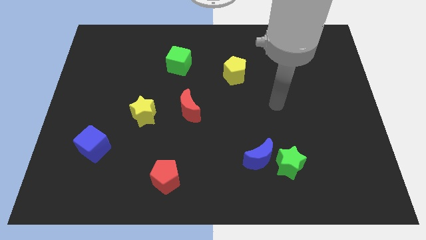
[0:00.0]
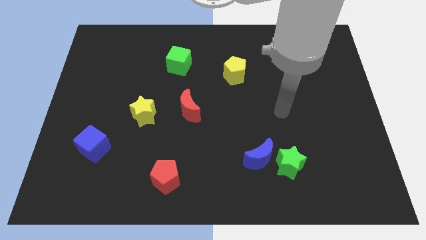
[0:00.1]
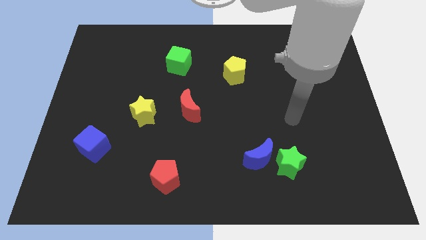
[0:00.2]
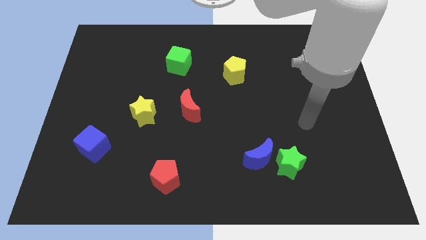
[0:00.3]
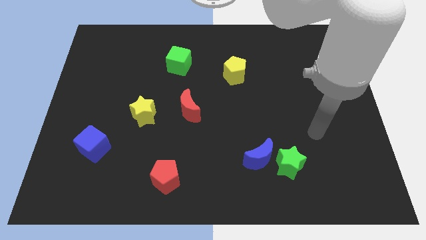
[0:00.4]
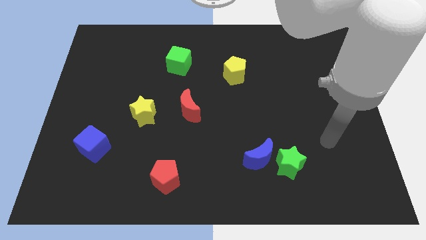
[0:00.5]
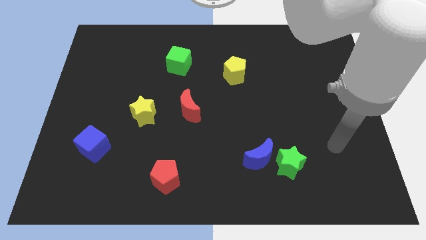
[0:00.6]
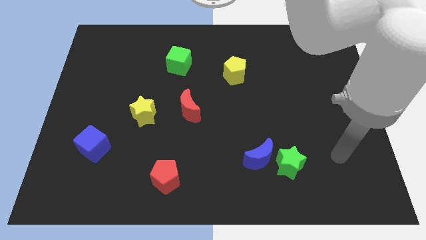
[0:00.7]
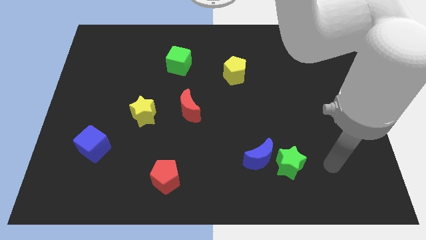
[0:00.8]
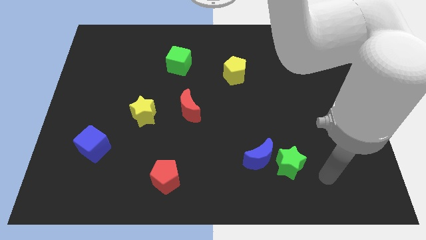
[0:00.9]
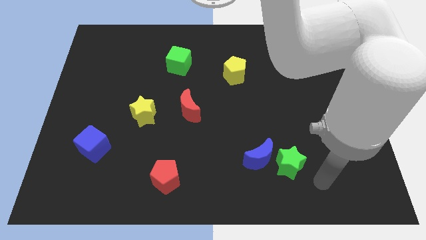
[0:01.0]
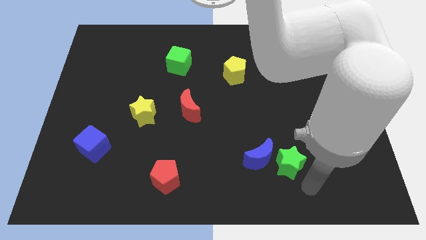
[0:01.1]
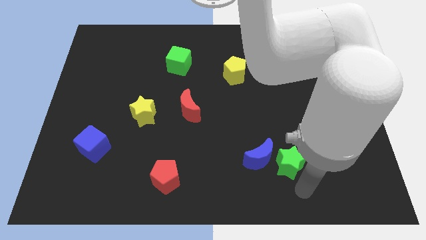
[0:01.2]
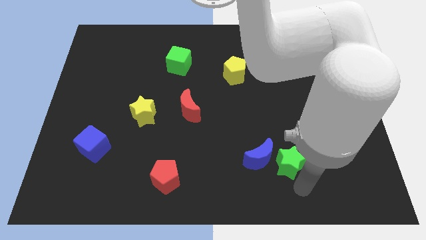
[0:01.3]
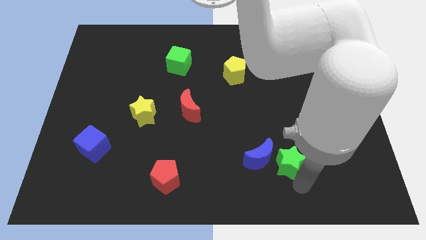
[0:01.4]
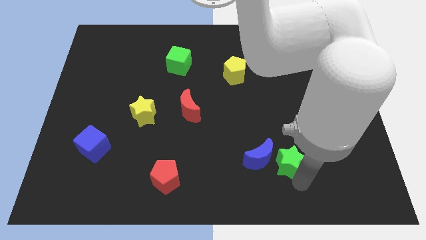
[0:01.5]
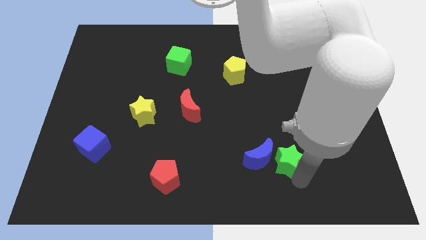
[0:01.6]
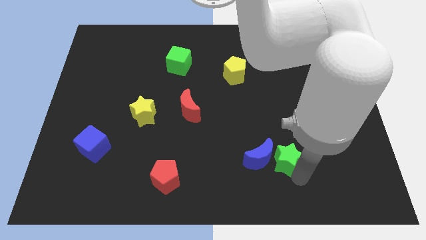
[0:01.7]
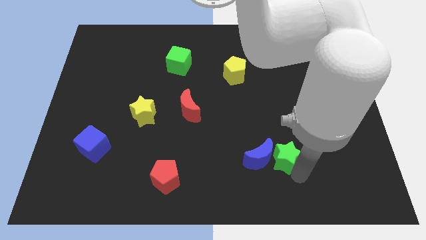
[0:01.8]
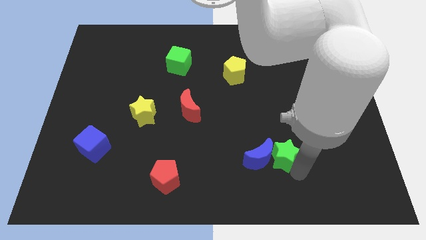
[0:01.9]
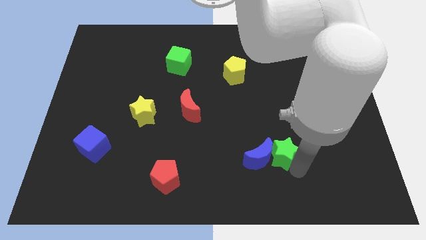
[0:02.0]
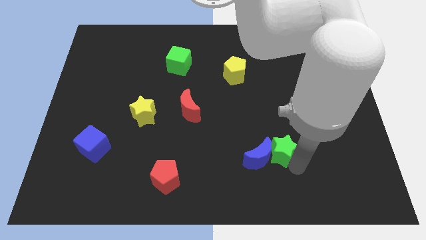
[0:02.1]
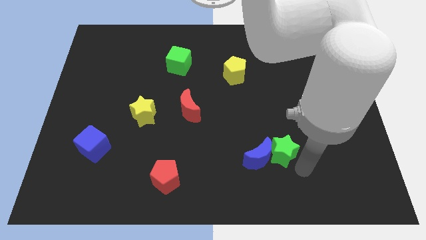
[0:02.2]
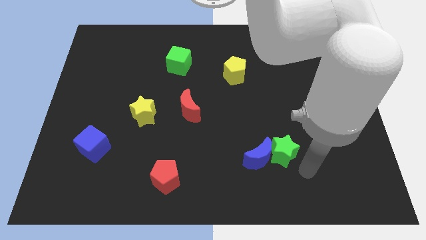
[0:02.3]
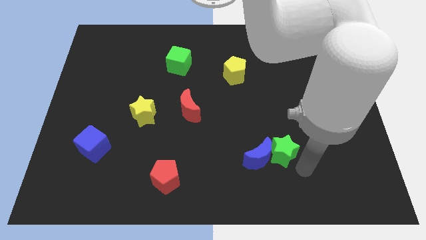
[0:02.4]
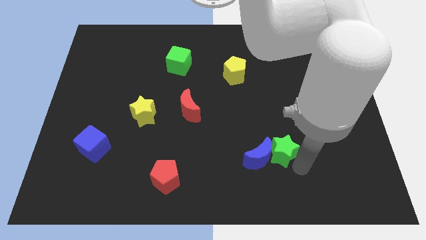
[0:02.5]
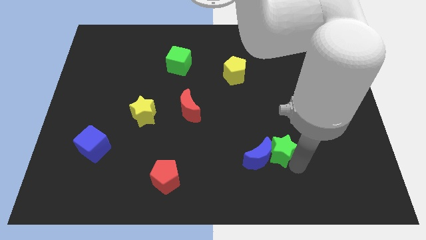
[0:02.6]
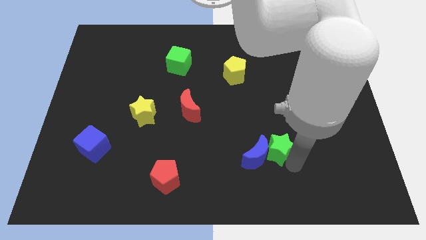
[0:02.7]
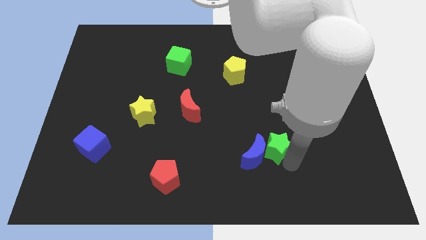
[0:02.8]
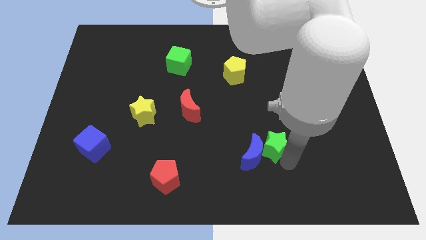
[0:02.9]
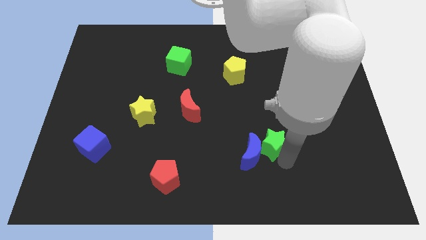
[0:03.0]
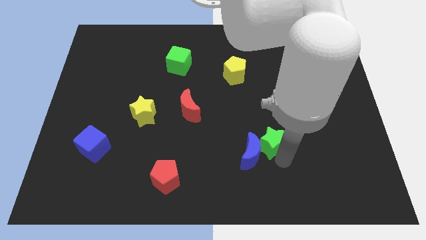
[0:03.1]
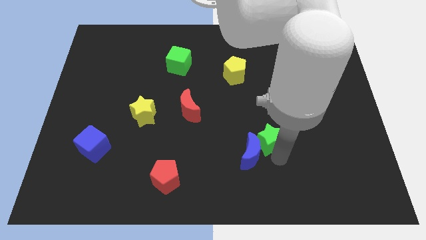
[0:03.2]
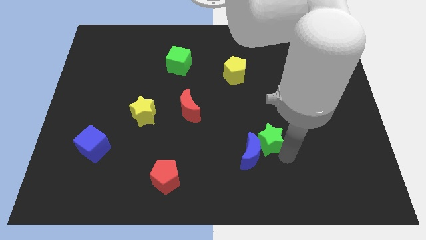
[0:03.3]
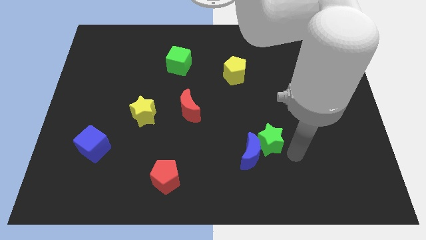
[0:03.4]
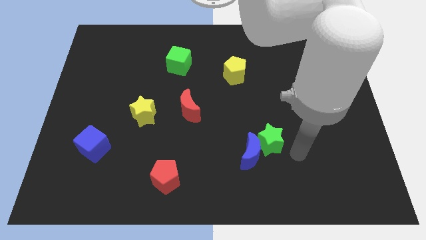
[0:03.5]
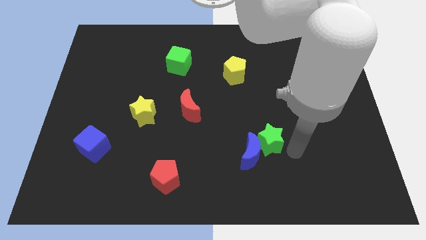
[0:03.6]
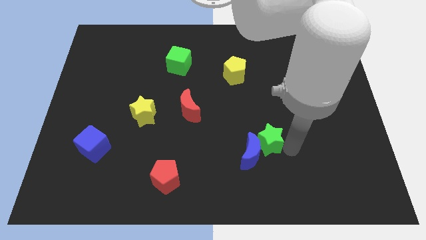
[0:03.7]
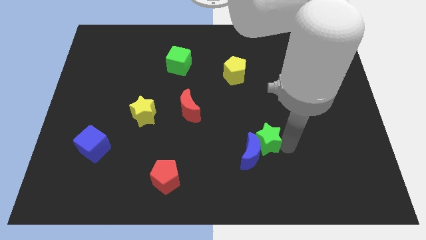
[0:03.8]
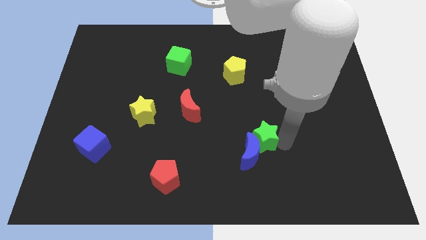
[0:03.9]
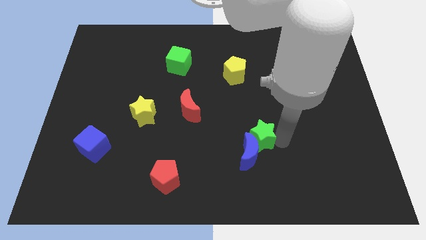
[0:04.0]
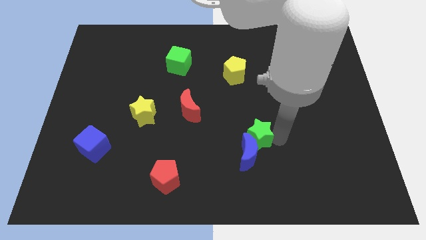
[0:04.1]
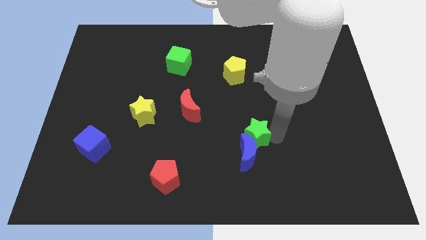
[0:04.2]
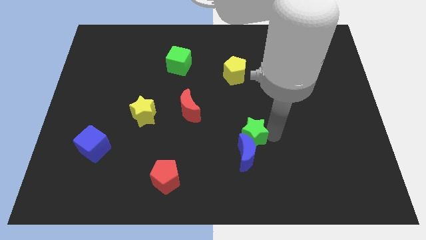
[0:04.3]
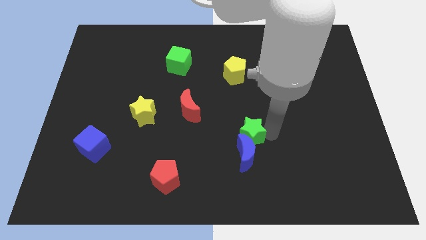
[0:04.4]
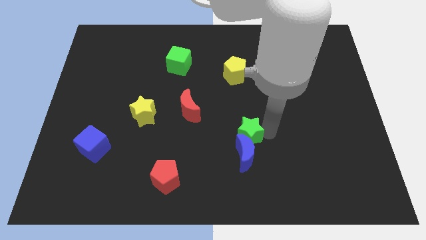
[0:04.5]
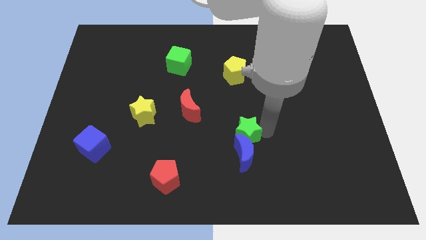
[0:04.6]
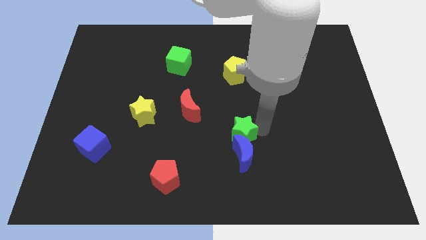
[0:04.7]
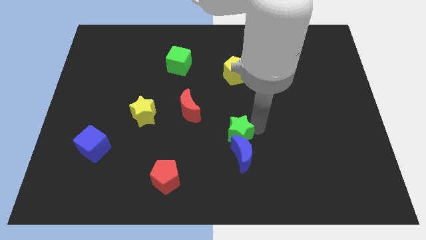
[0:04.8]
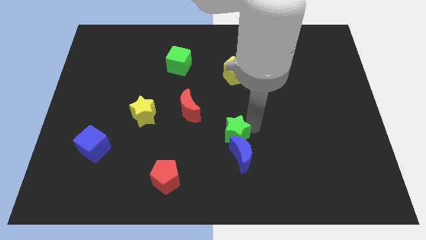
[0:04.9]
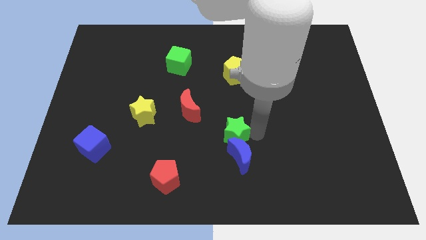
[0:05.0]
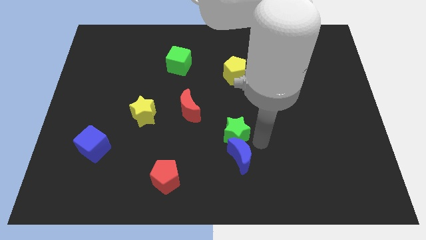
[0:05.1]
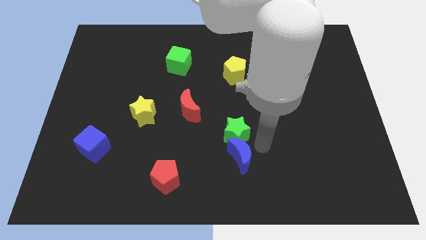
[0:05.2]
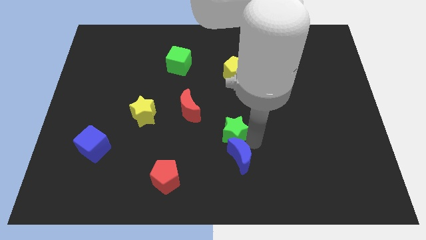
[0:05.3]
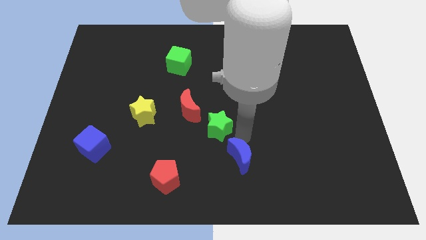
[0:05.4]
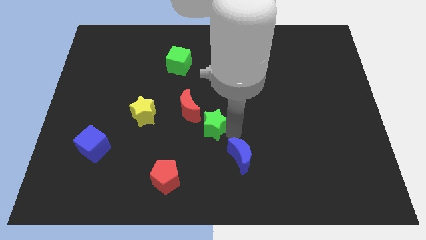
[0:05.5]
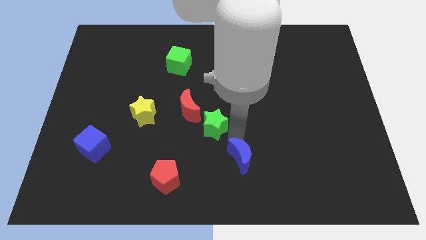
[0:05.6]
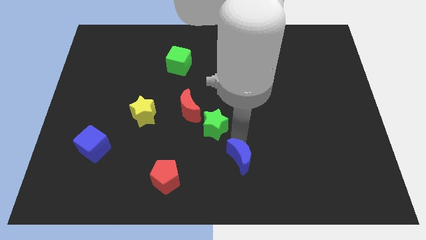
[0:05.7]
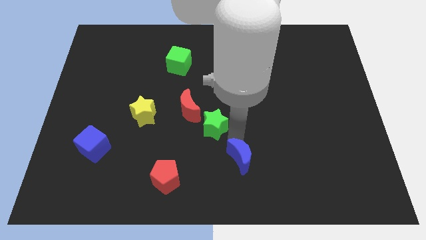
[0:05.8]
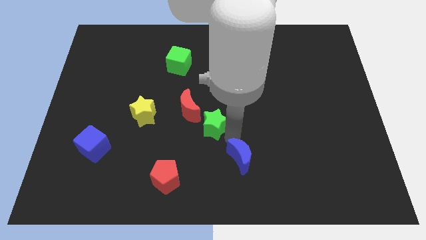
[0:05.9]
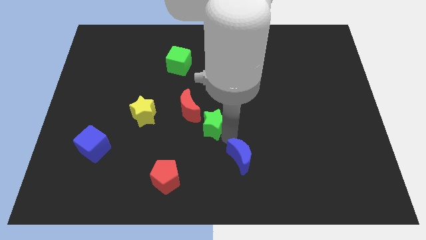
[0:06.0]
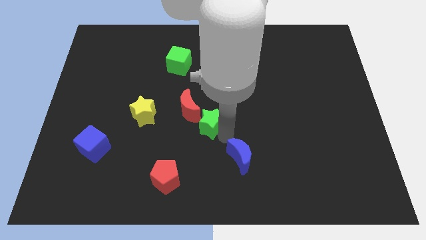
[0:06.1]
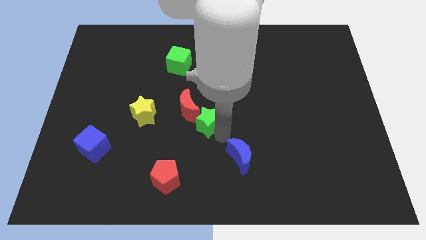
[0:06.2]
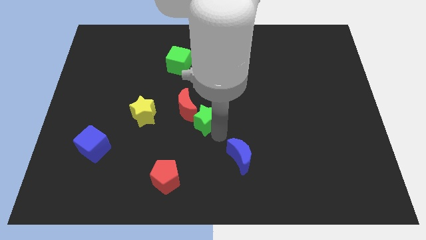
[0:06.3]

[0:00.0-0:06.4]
move the green star to the red moon
